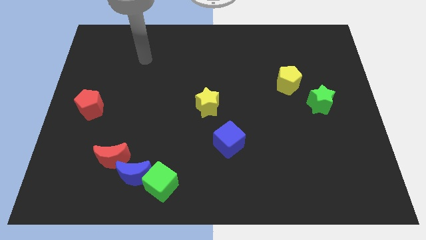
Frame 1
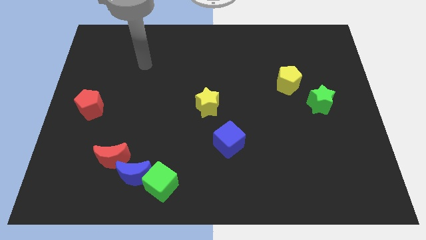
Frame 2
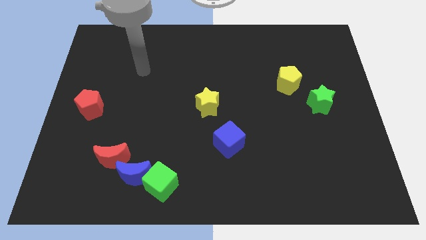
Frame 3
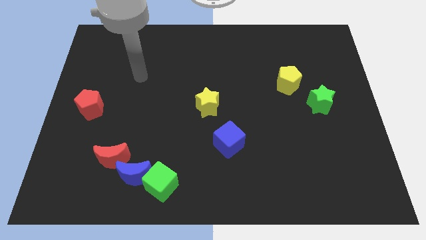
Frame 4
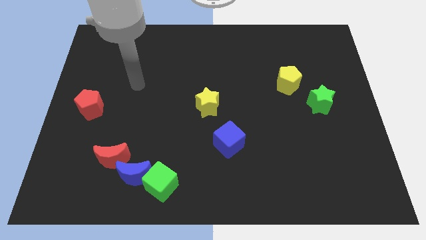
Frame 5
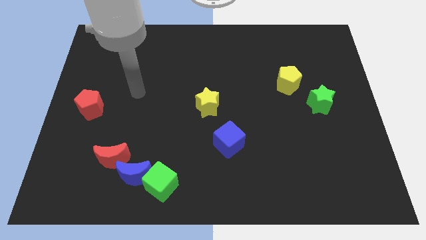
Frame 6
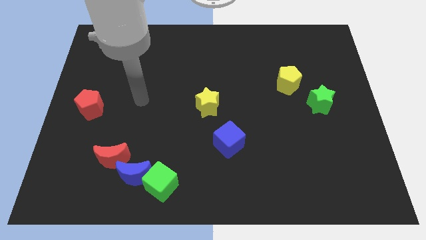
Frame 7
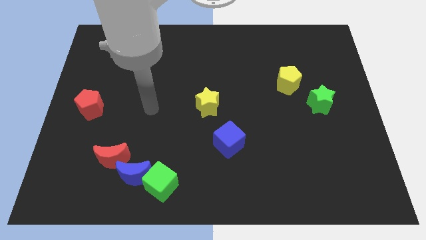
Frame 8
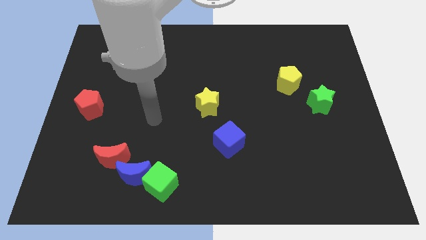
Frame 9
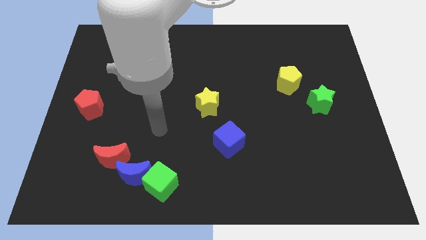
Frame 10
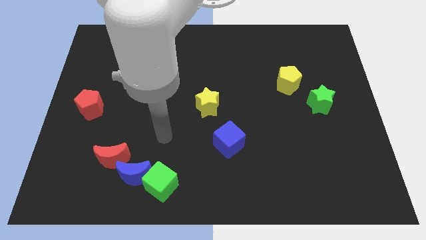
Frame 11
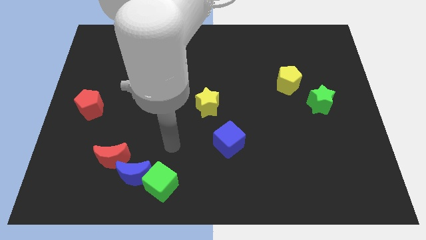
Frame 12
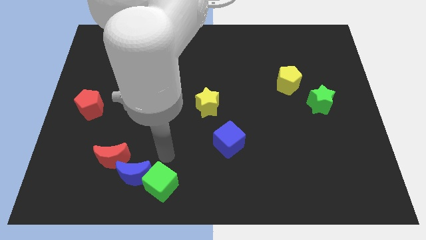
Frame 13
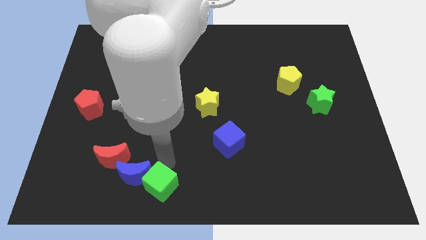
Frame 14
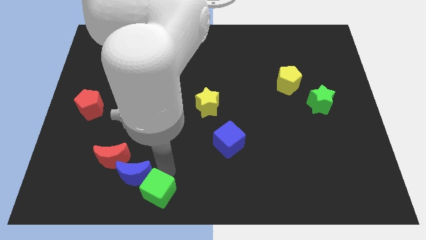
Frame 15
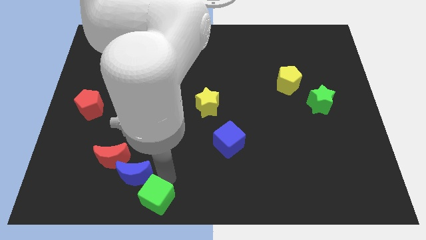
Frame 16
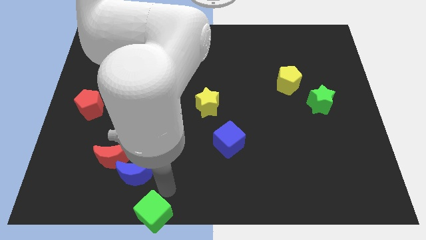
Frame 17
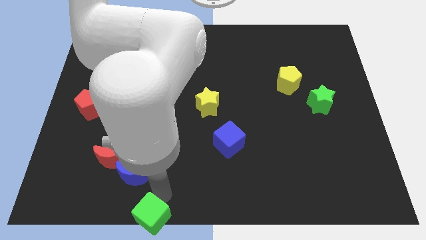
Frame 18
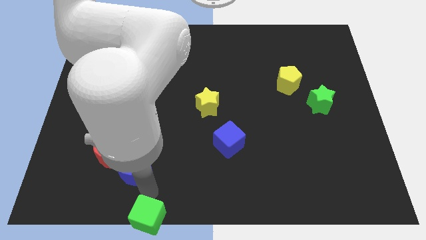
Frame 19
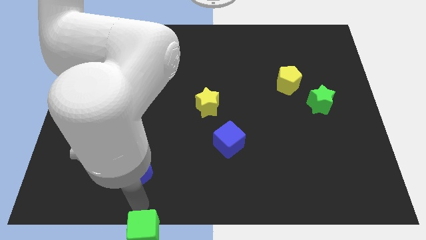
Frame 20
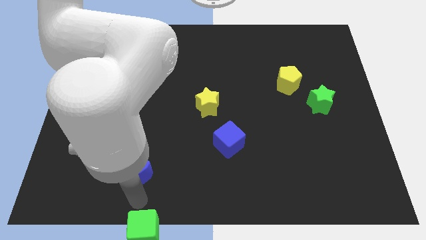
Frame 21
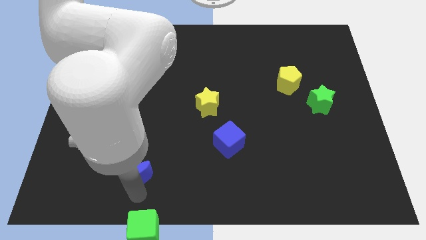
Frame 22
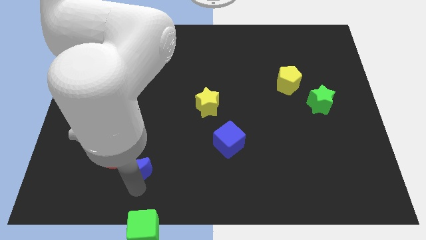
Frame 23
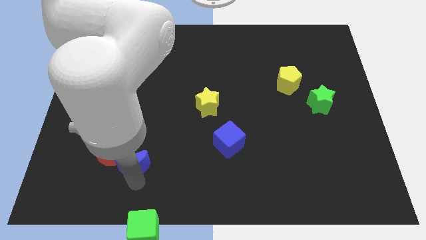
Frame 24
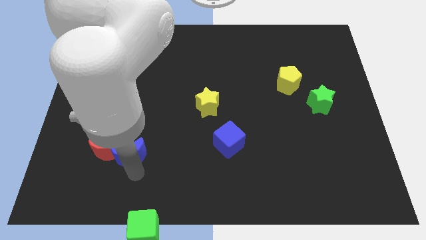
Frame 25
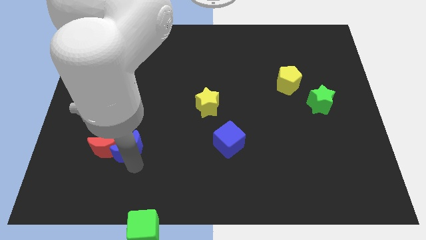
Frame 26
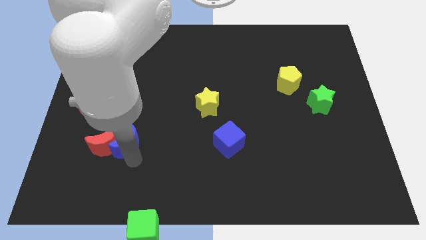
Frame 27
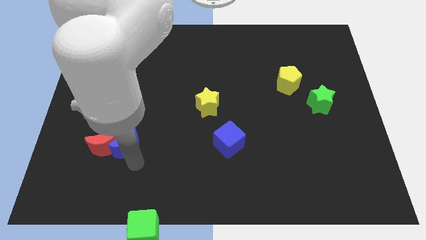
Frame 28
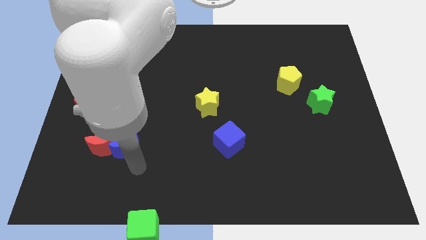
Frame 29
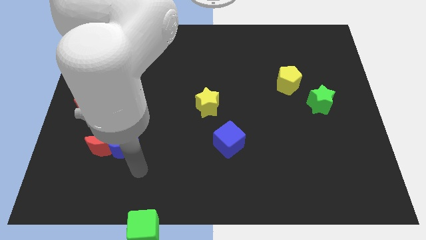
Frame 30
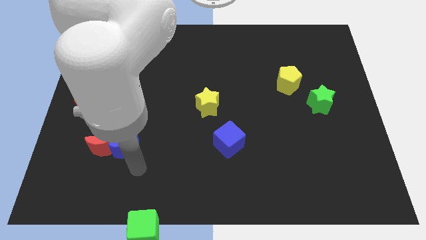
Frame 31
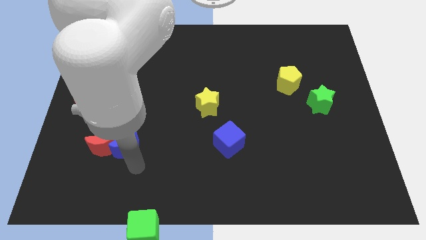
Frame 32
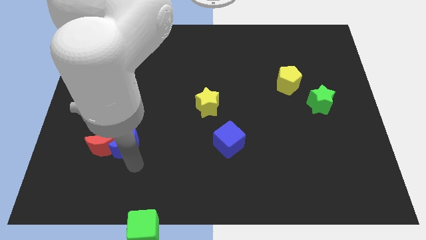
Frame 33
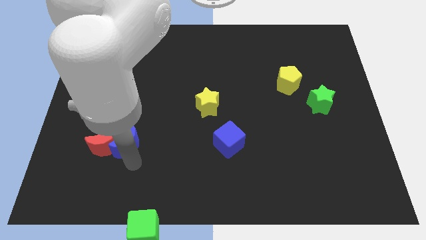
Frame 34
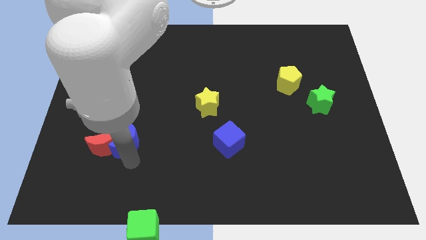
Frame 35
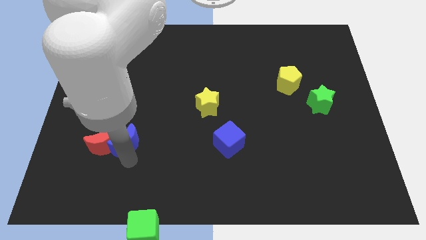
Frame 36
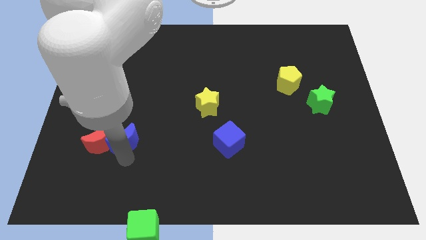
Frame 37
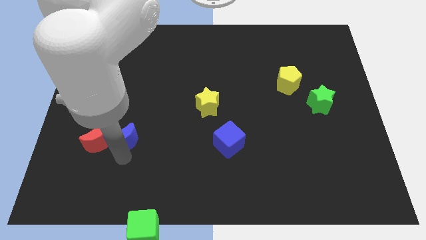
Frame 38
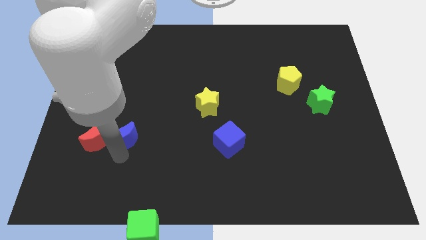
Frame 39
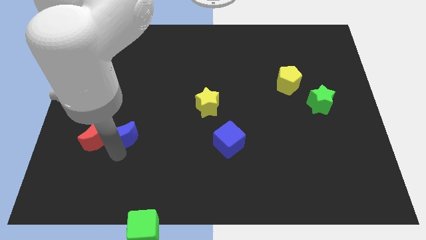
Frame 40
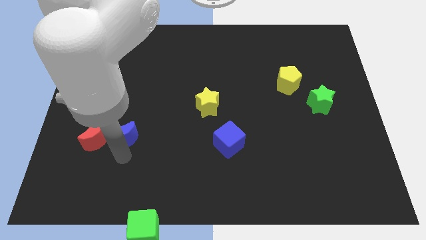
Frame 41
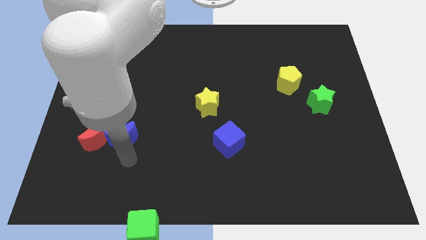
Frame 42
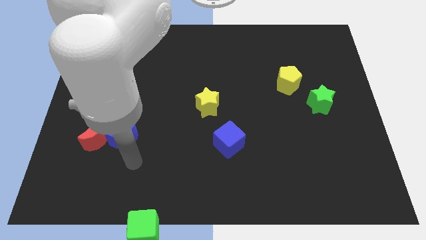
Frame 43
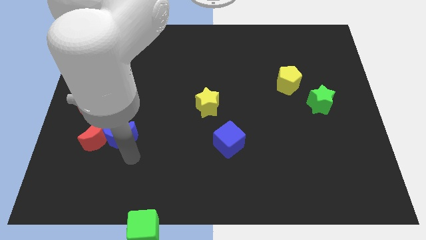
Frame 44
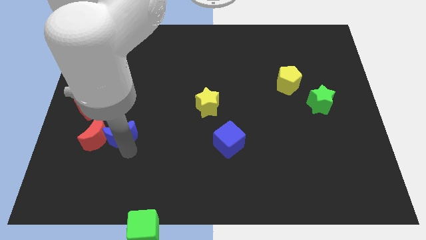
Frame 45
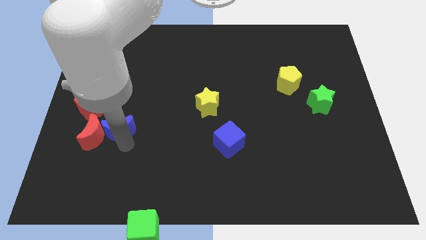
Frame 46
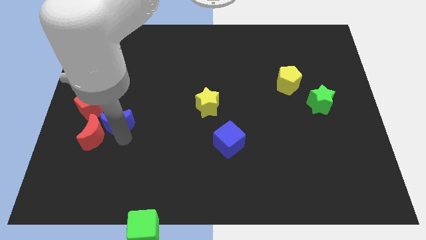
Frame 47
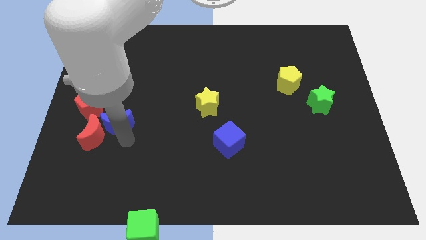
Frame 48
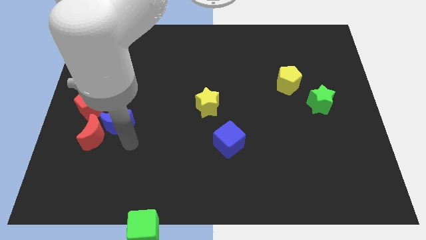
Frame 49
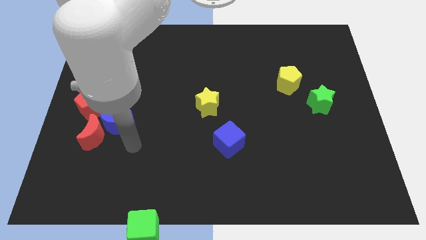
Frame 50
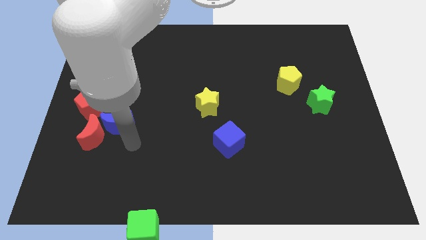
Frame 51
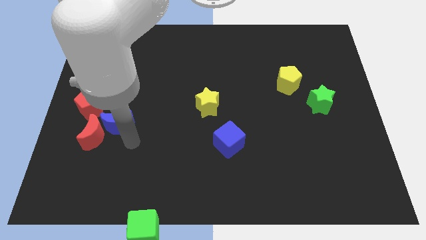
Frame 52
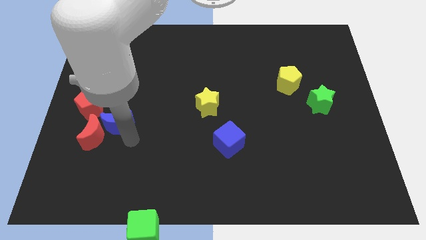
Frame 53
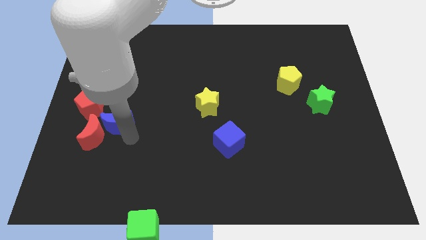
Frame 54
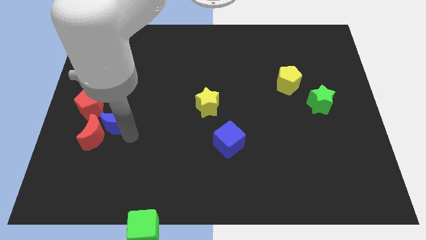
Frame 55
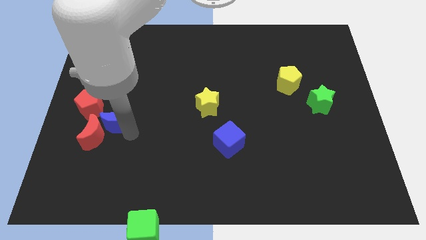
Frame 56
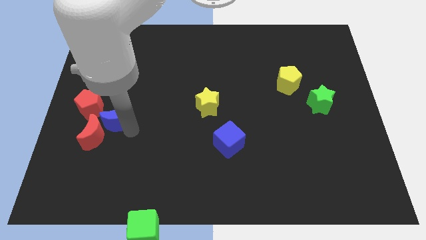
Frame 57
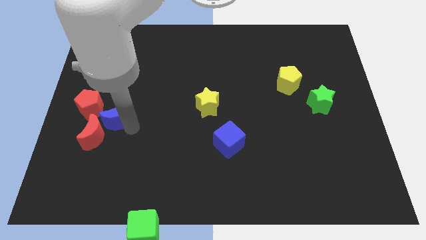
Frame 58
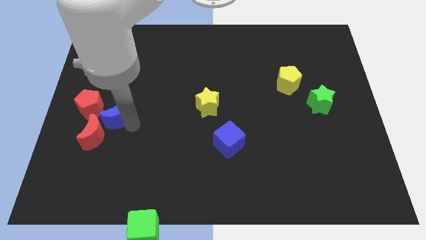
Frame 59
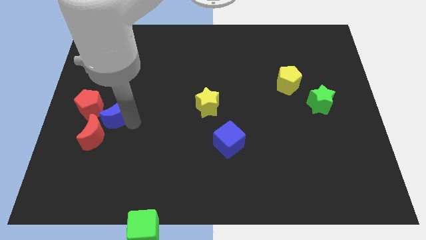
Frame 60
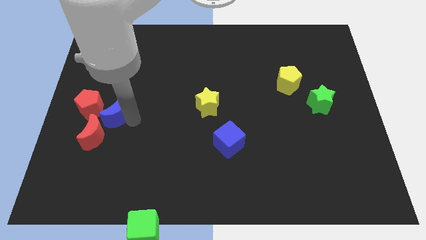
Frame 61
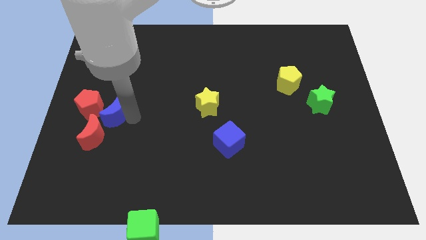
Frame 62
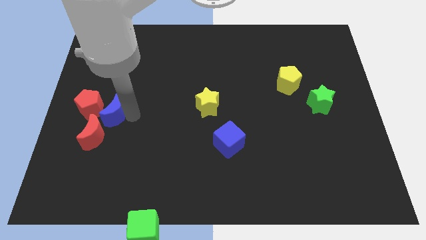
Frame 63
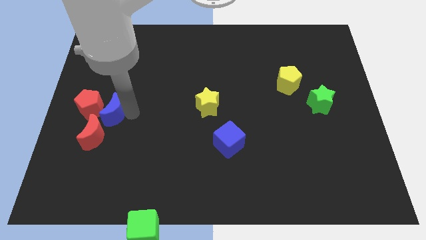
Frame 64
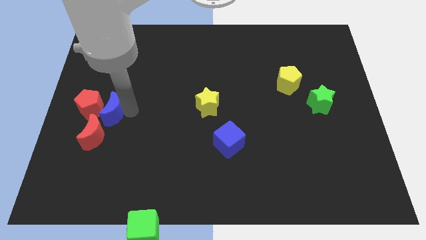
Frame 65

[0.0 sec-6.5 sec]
slide the blue moon towards the red pentagon
